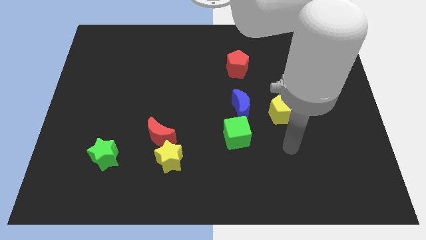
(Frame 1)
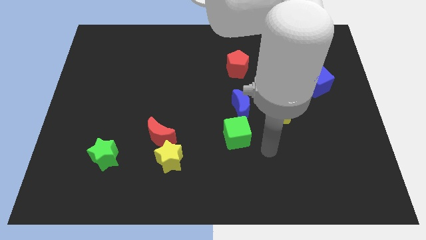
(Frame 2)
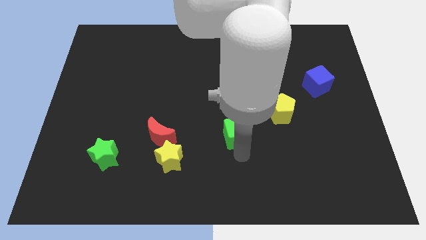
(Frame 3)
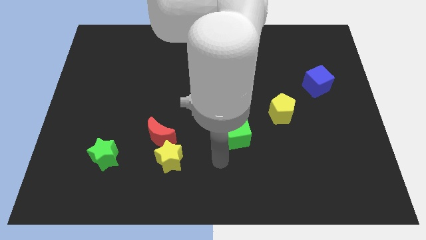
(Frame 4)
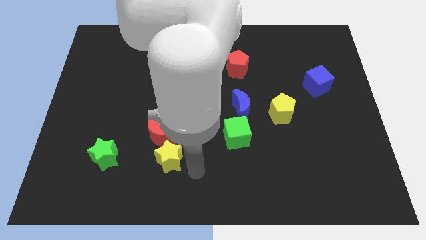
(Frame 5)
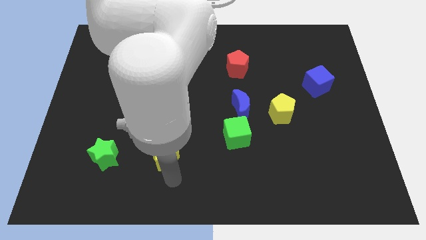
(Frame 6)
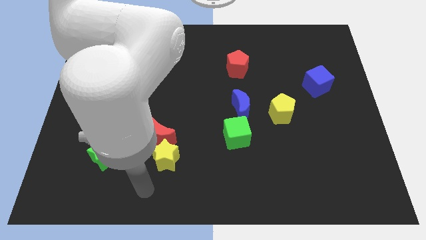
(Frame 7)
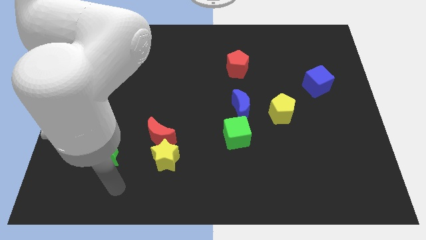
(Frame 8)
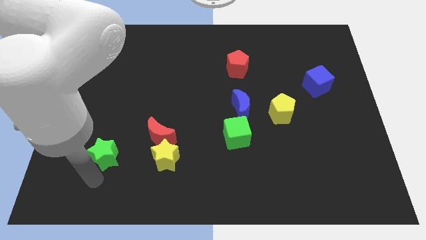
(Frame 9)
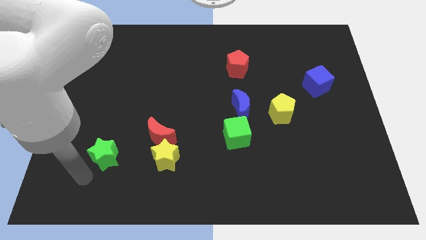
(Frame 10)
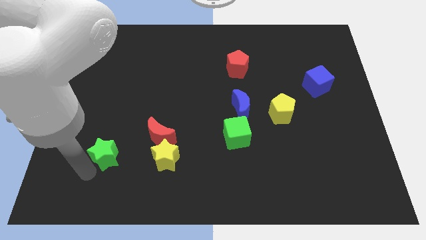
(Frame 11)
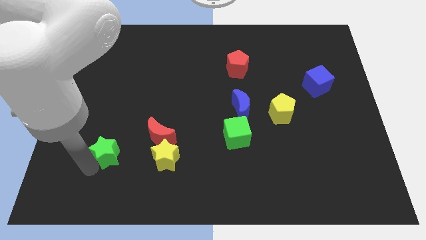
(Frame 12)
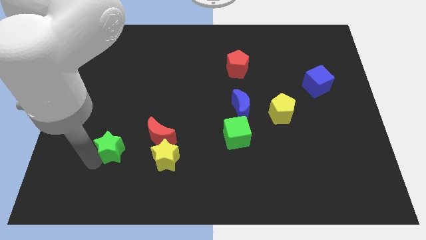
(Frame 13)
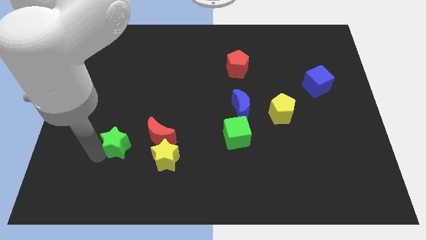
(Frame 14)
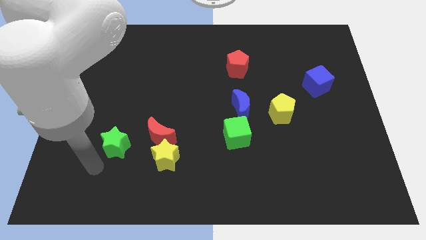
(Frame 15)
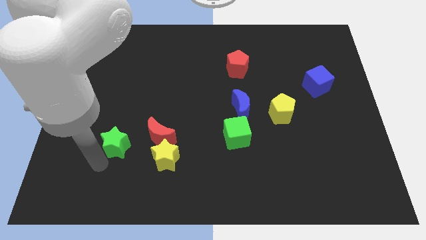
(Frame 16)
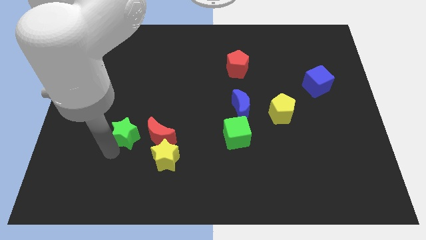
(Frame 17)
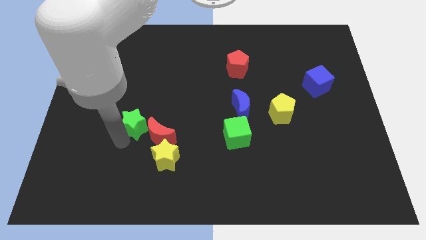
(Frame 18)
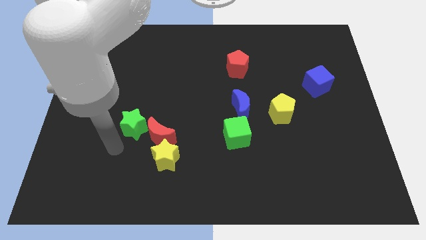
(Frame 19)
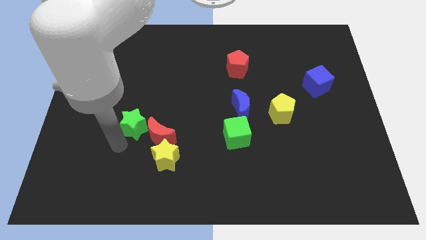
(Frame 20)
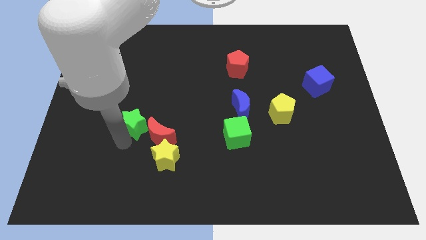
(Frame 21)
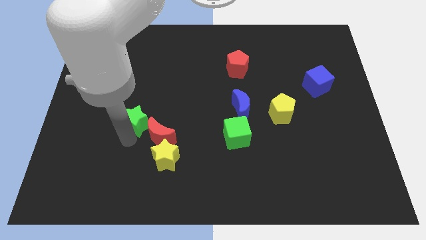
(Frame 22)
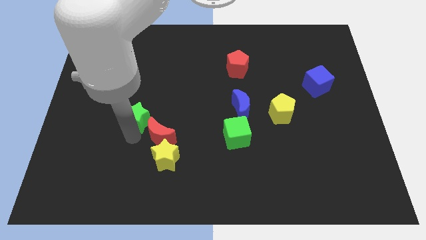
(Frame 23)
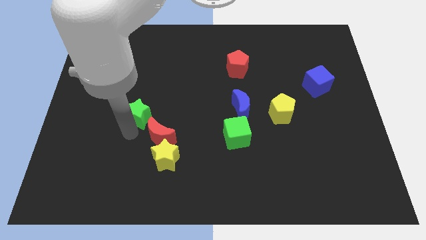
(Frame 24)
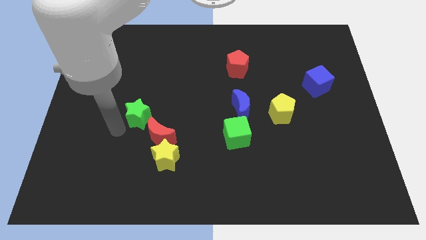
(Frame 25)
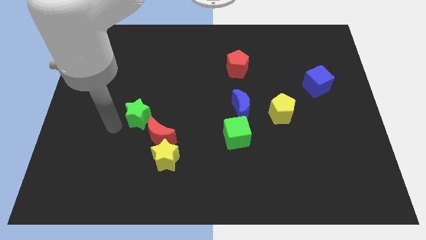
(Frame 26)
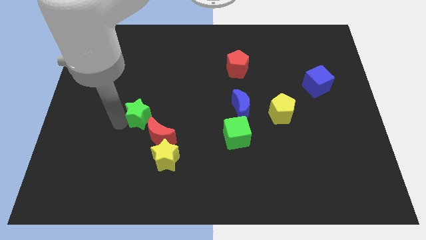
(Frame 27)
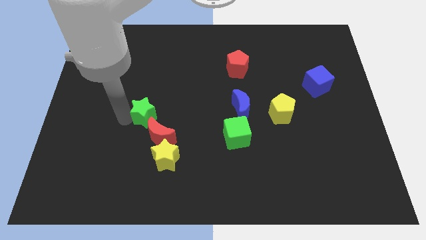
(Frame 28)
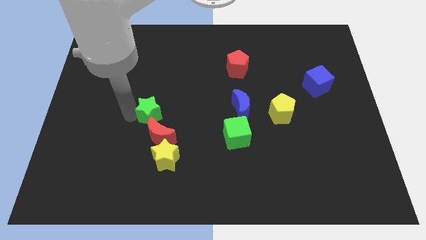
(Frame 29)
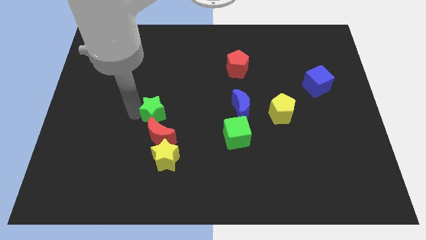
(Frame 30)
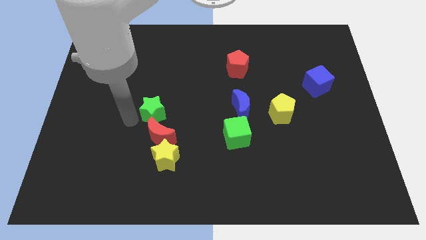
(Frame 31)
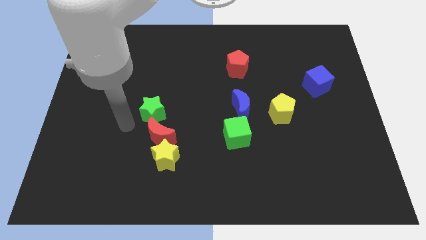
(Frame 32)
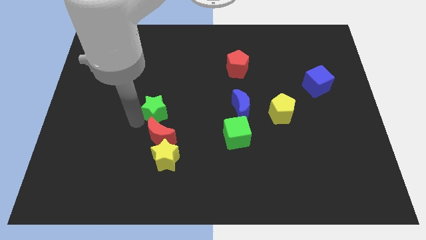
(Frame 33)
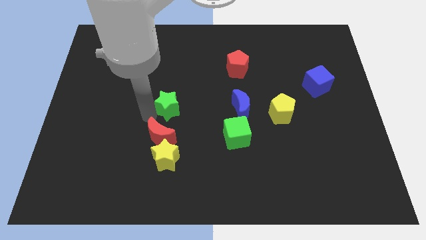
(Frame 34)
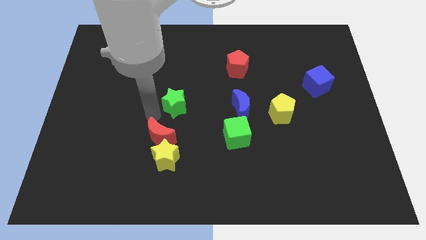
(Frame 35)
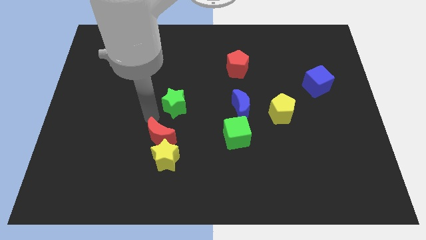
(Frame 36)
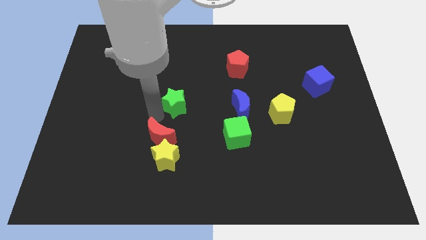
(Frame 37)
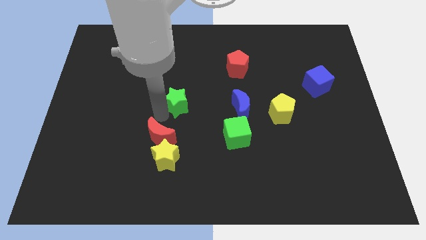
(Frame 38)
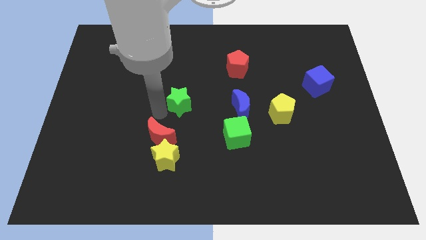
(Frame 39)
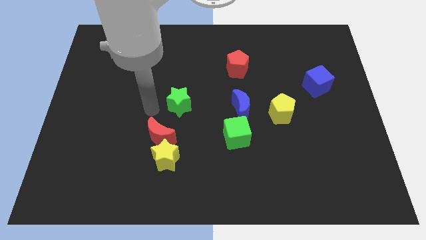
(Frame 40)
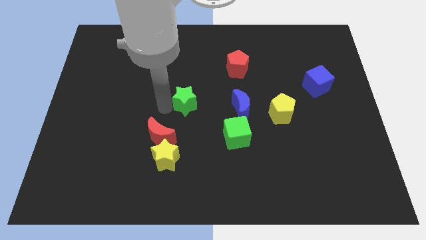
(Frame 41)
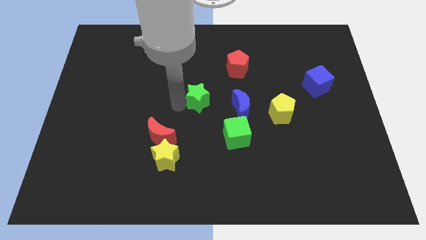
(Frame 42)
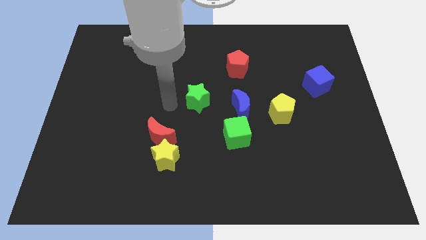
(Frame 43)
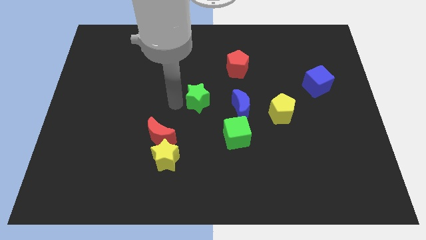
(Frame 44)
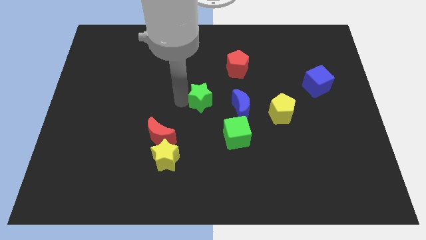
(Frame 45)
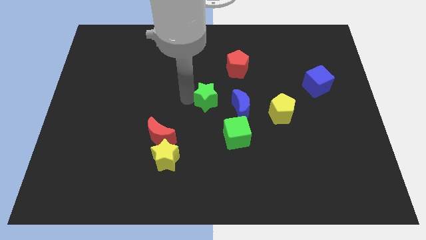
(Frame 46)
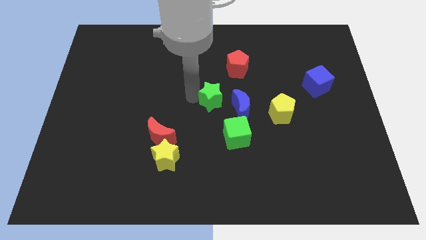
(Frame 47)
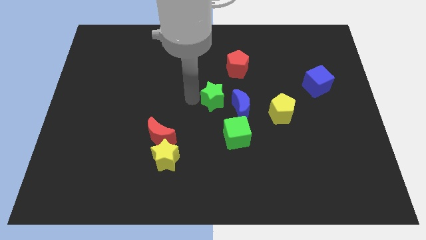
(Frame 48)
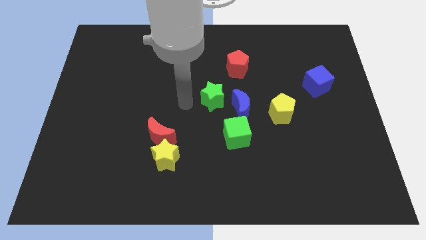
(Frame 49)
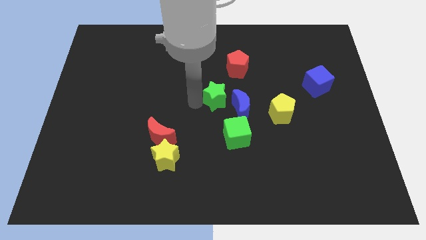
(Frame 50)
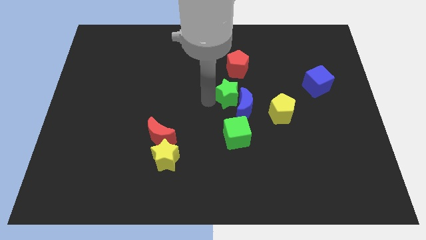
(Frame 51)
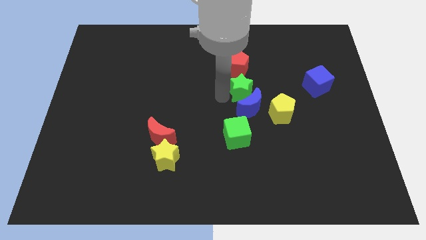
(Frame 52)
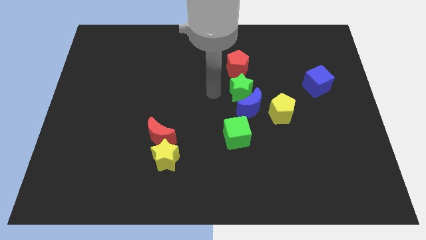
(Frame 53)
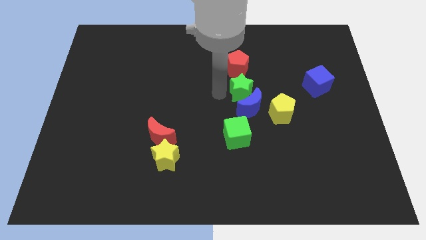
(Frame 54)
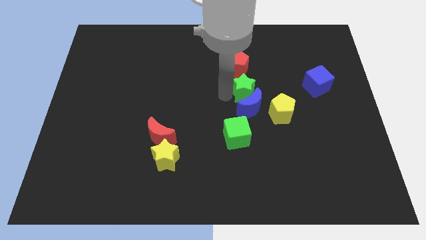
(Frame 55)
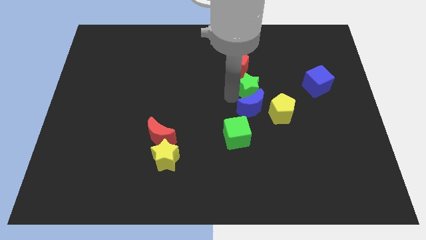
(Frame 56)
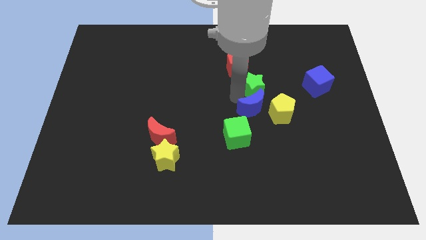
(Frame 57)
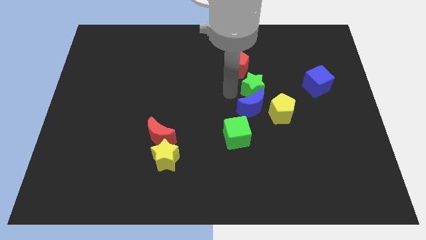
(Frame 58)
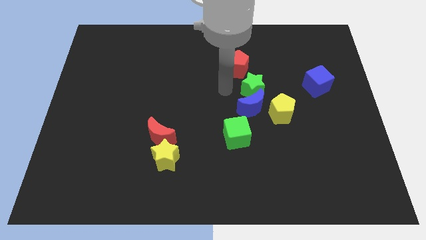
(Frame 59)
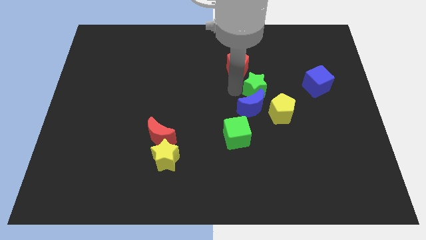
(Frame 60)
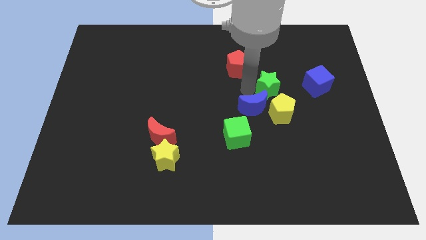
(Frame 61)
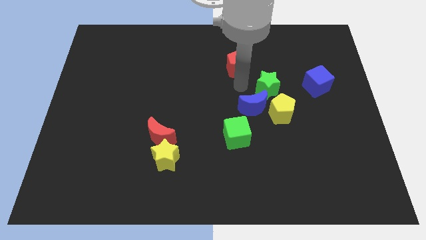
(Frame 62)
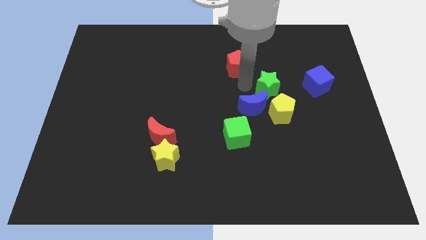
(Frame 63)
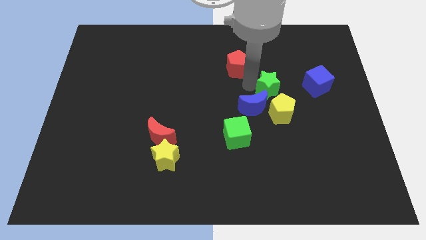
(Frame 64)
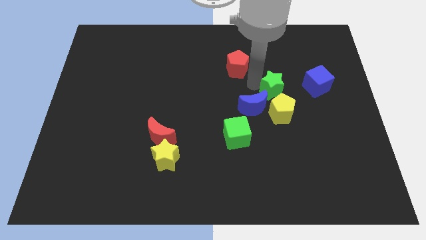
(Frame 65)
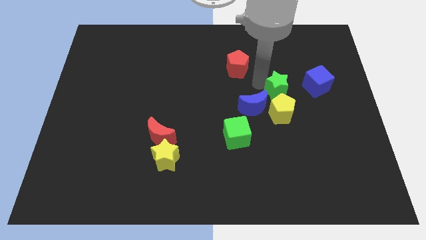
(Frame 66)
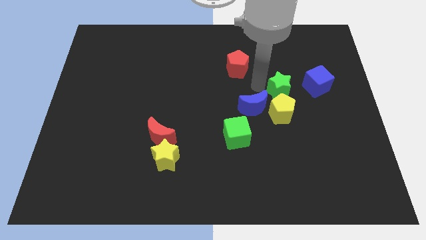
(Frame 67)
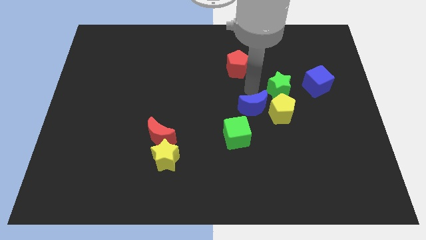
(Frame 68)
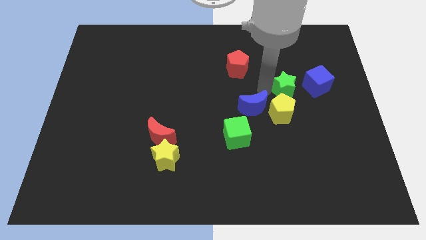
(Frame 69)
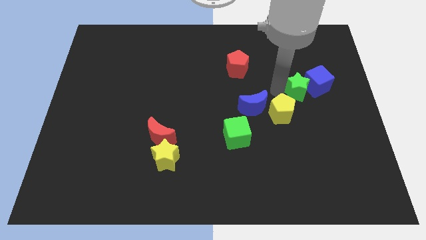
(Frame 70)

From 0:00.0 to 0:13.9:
slide the green star to the blue cube
